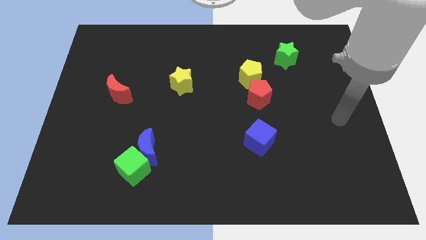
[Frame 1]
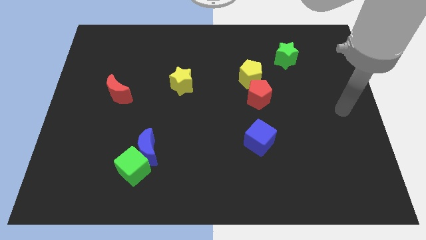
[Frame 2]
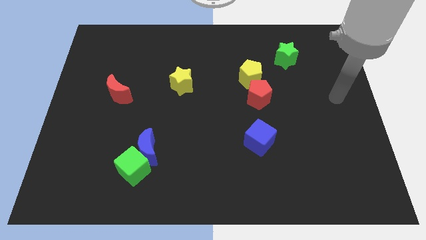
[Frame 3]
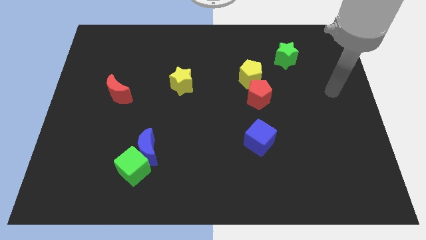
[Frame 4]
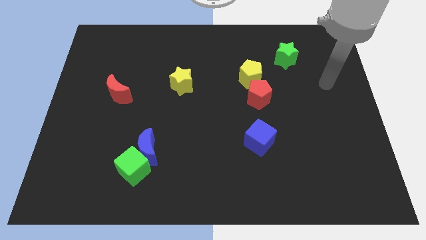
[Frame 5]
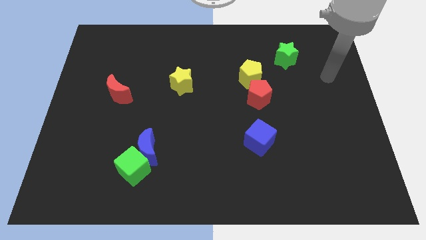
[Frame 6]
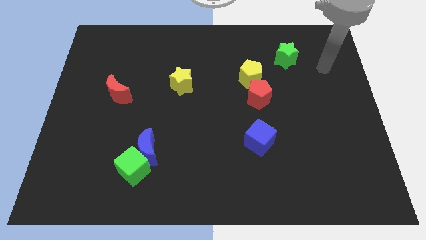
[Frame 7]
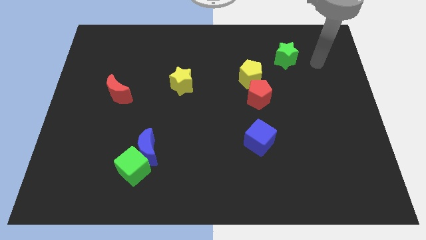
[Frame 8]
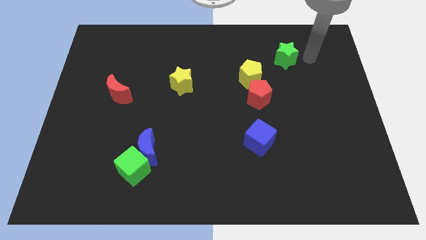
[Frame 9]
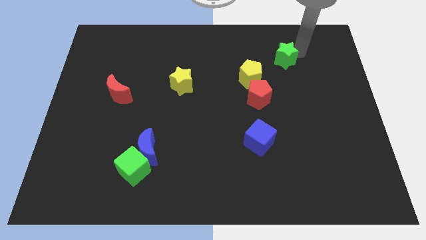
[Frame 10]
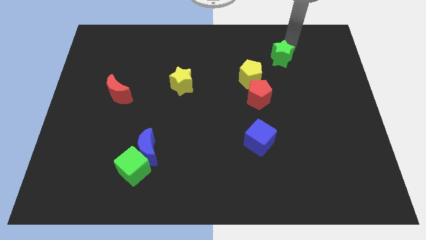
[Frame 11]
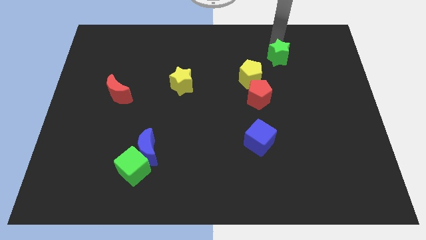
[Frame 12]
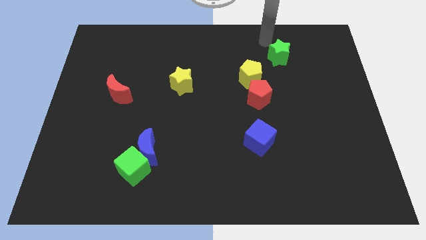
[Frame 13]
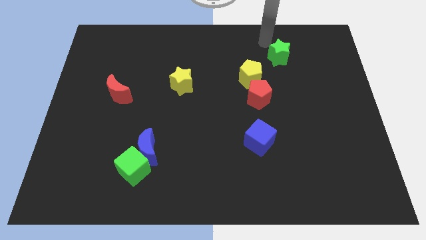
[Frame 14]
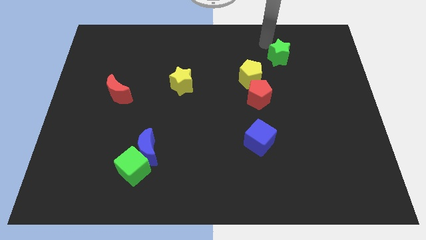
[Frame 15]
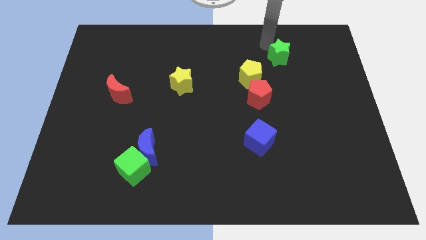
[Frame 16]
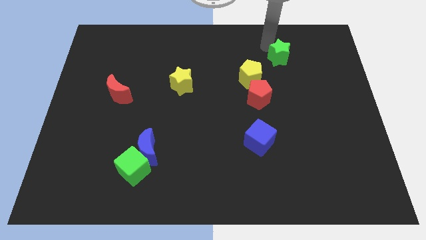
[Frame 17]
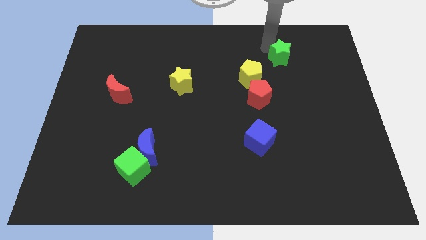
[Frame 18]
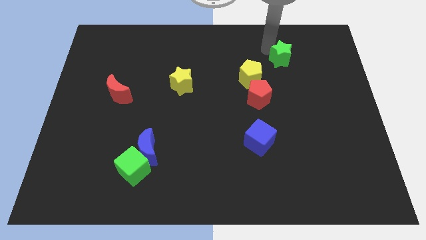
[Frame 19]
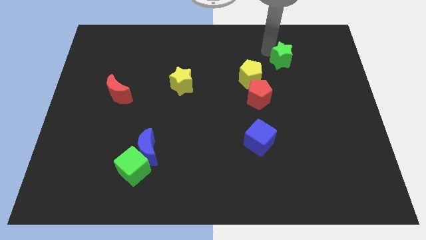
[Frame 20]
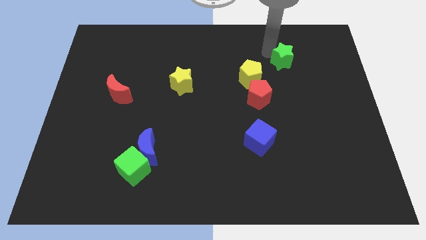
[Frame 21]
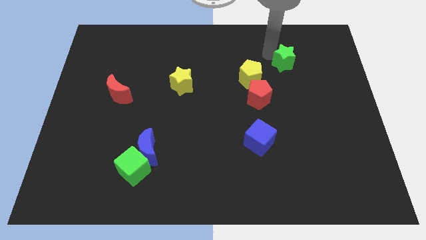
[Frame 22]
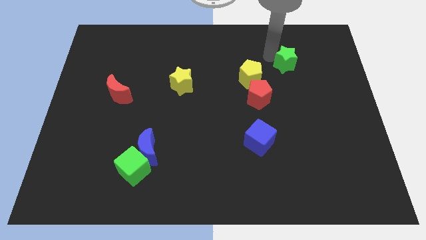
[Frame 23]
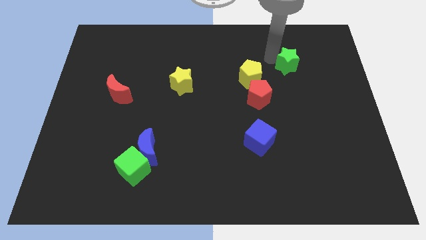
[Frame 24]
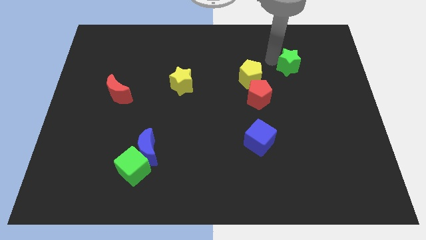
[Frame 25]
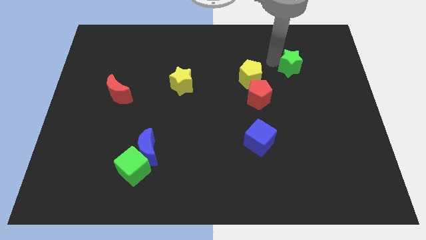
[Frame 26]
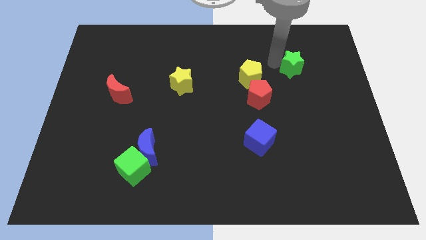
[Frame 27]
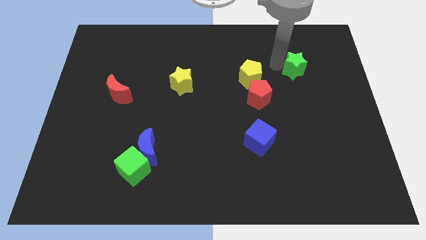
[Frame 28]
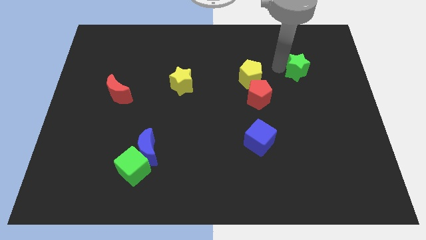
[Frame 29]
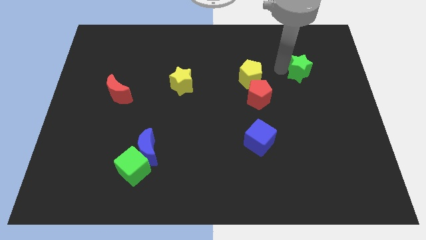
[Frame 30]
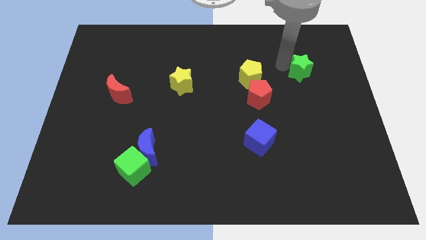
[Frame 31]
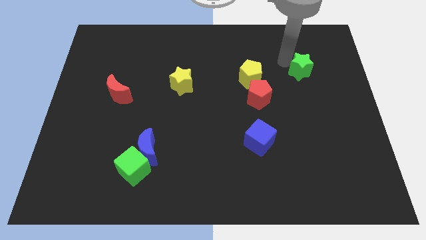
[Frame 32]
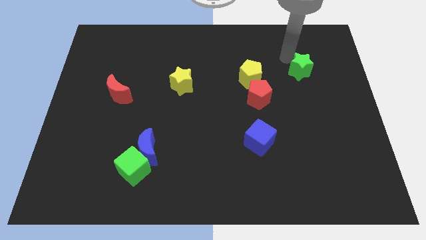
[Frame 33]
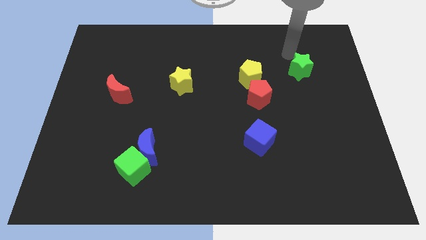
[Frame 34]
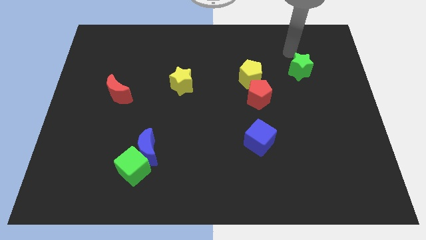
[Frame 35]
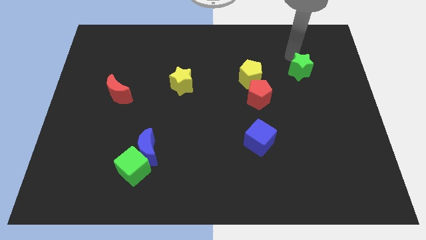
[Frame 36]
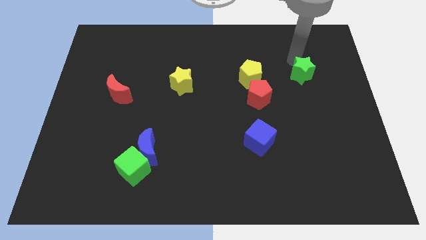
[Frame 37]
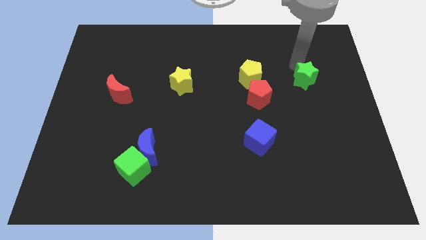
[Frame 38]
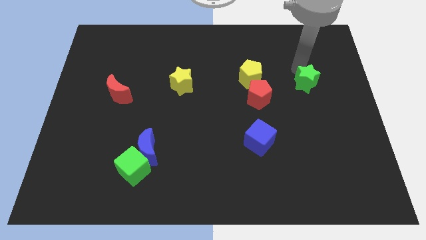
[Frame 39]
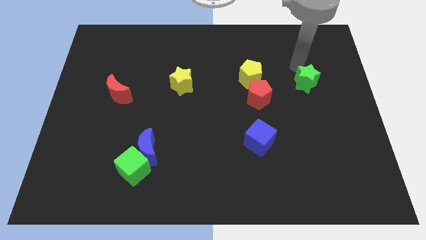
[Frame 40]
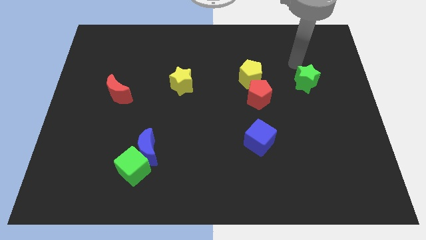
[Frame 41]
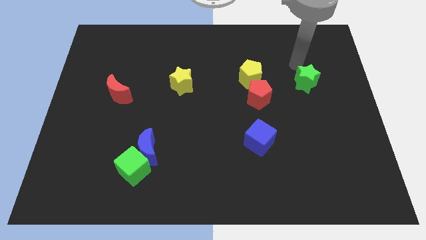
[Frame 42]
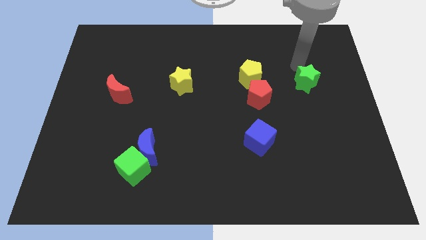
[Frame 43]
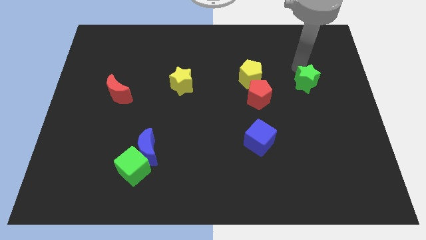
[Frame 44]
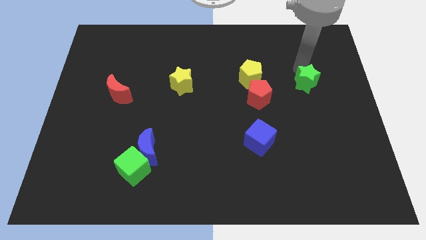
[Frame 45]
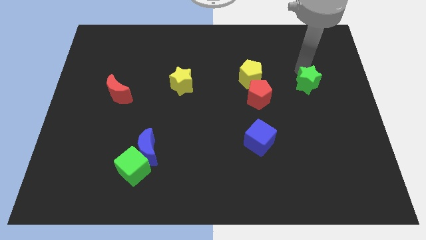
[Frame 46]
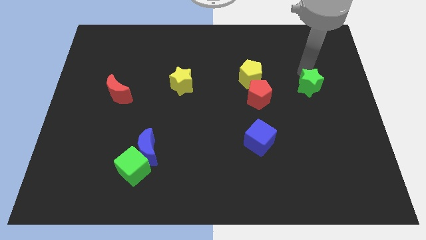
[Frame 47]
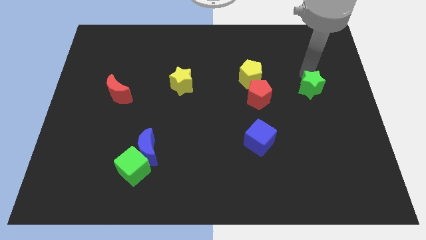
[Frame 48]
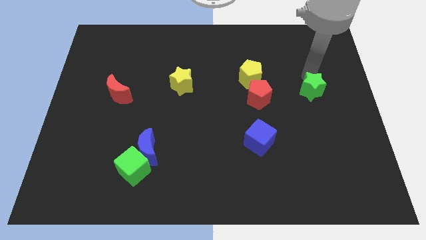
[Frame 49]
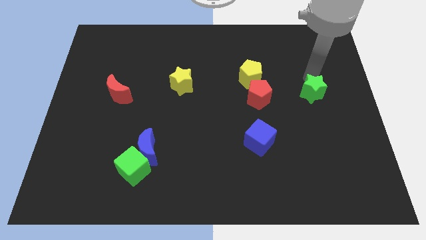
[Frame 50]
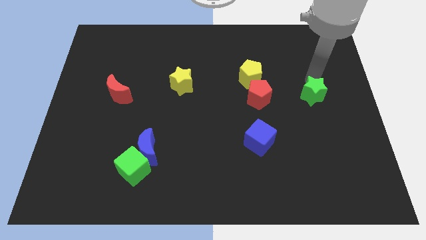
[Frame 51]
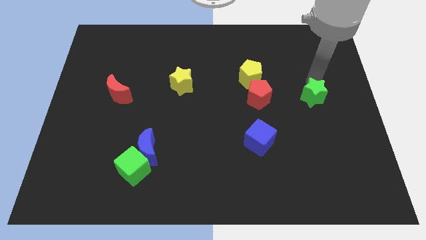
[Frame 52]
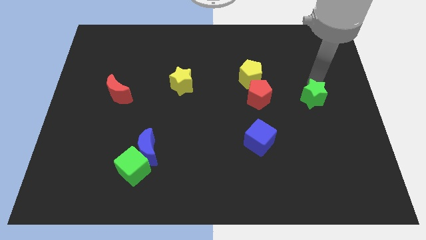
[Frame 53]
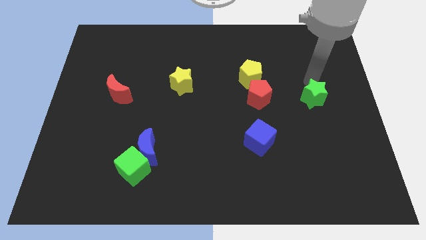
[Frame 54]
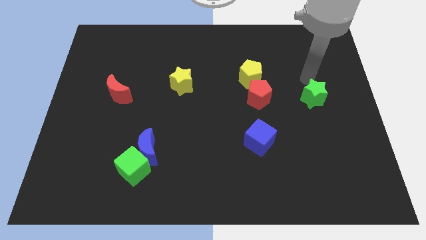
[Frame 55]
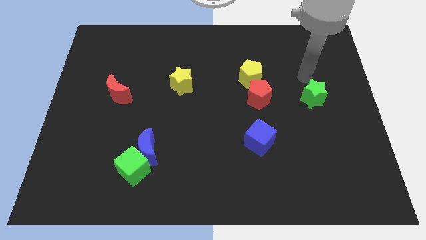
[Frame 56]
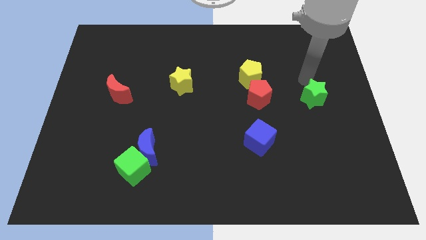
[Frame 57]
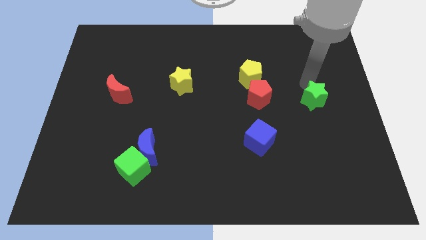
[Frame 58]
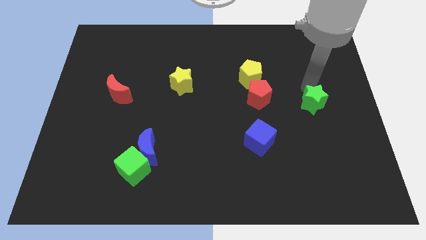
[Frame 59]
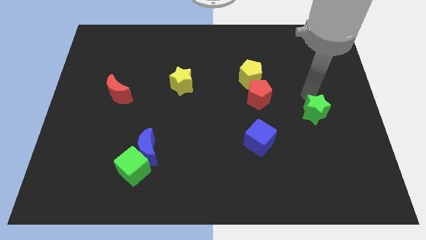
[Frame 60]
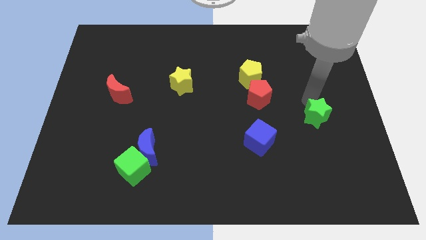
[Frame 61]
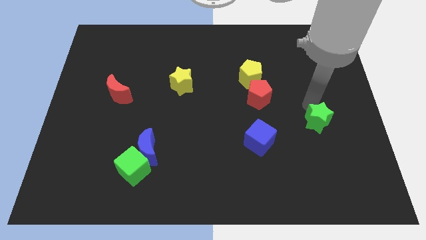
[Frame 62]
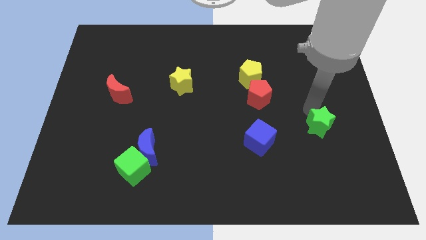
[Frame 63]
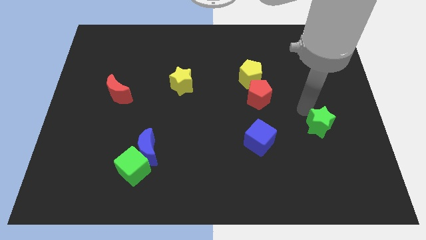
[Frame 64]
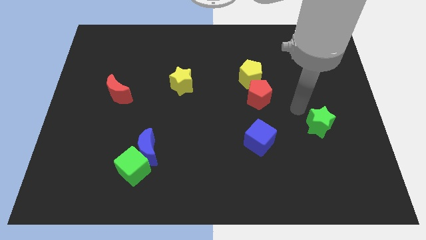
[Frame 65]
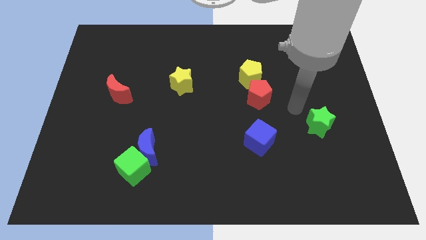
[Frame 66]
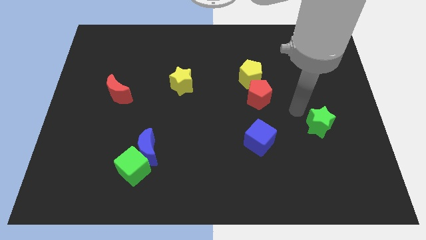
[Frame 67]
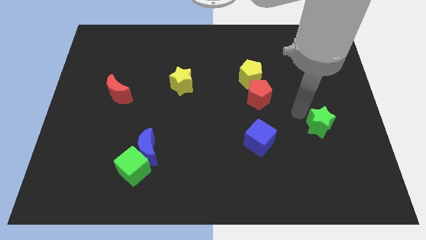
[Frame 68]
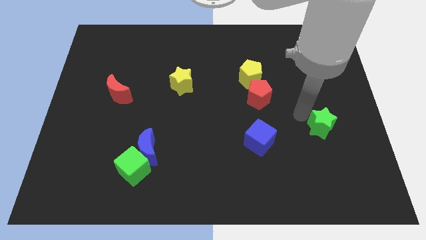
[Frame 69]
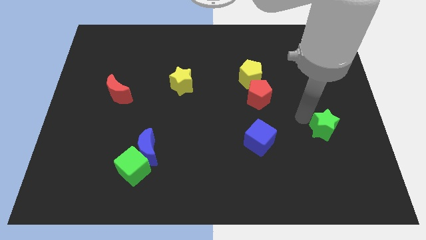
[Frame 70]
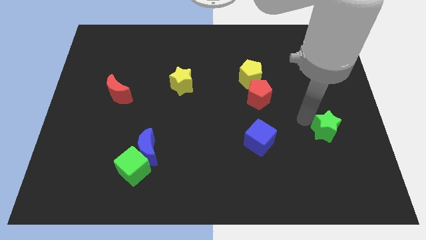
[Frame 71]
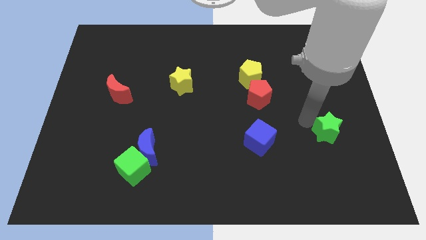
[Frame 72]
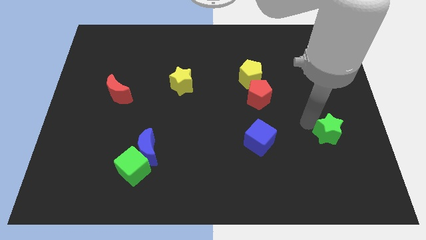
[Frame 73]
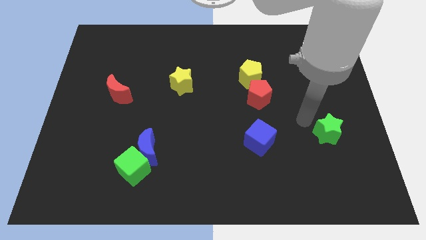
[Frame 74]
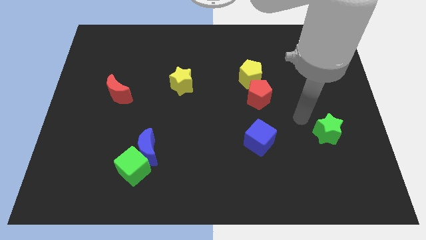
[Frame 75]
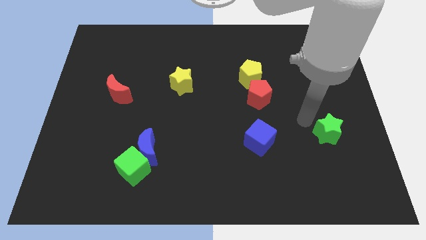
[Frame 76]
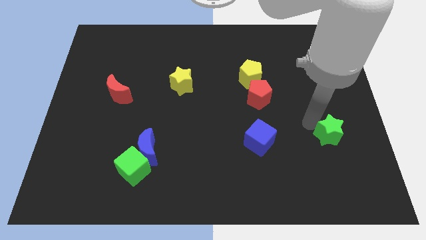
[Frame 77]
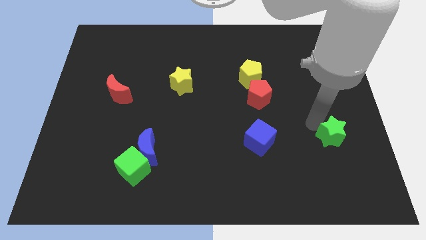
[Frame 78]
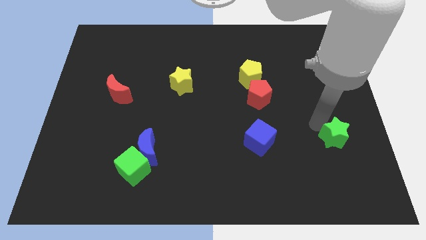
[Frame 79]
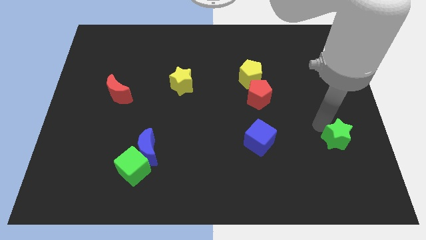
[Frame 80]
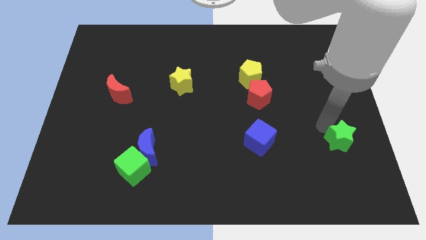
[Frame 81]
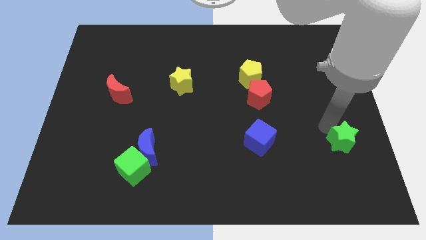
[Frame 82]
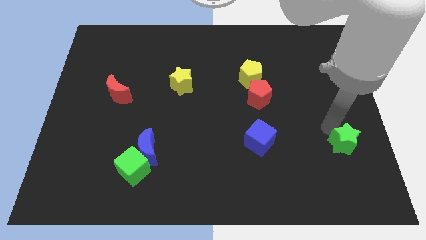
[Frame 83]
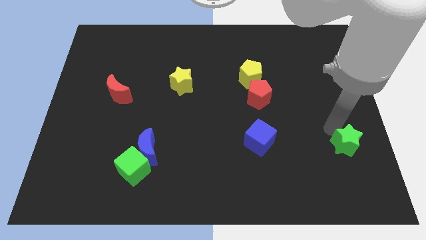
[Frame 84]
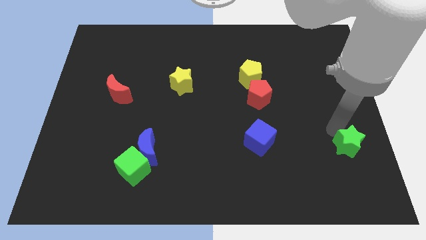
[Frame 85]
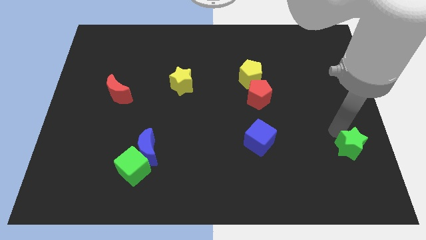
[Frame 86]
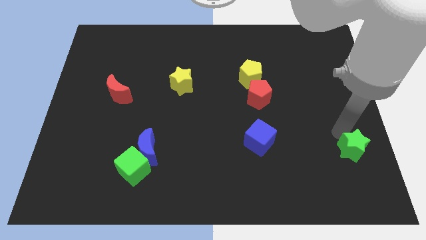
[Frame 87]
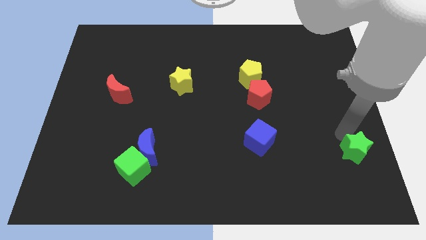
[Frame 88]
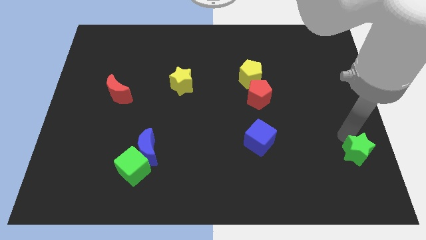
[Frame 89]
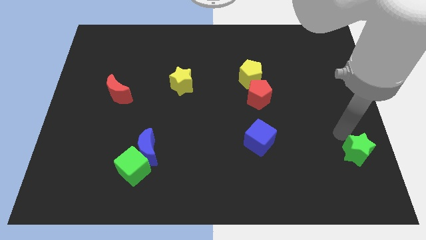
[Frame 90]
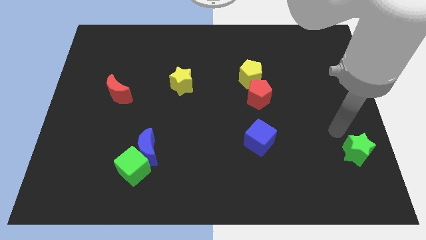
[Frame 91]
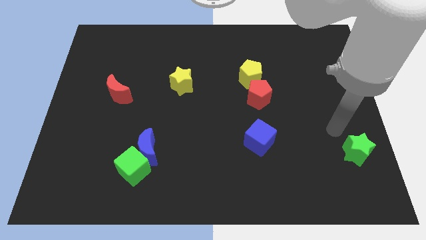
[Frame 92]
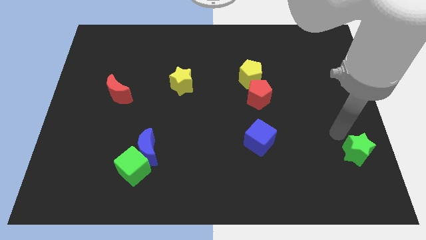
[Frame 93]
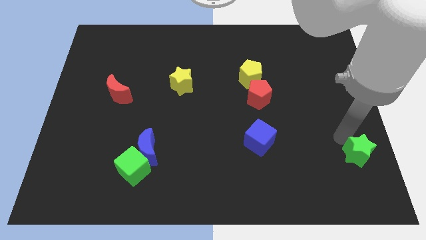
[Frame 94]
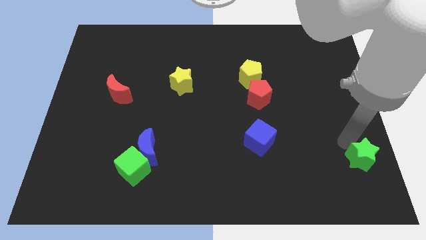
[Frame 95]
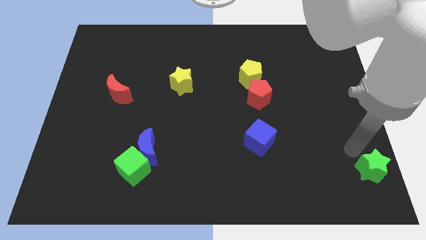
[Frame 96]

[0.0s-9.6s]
move the green star to the bottom right of the board
